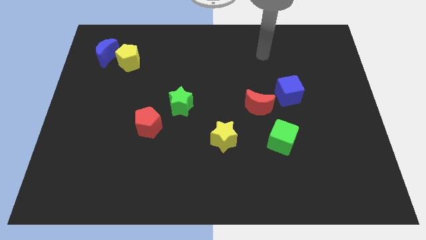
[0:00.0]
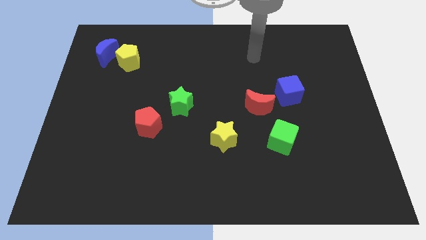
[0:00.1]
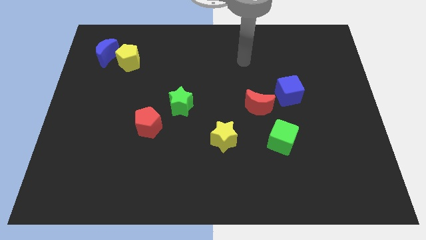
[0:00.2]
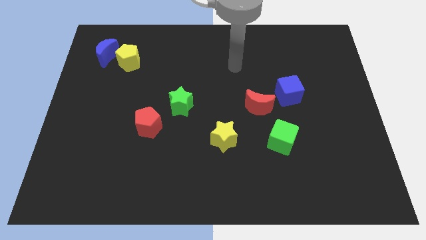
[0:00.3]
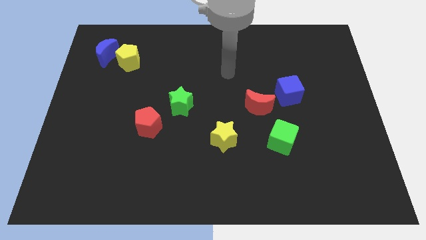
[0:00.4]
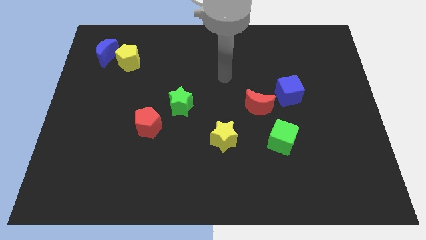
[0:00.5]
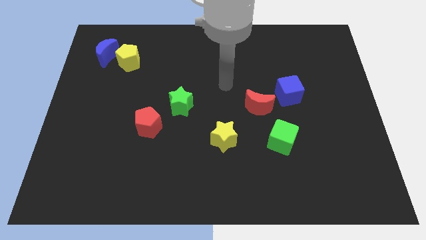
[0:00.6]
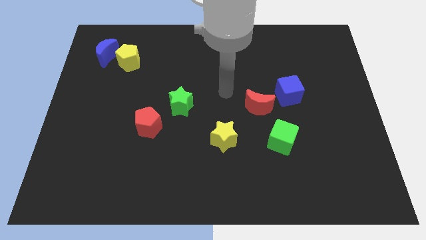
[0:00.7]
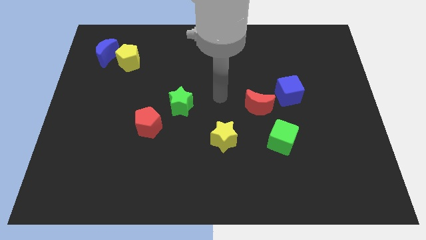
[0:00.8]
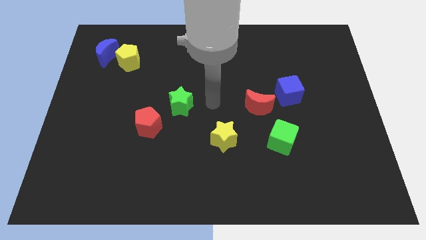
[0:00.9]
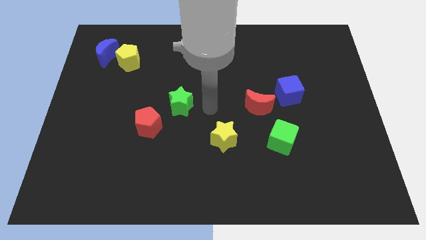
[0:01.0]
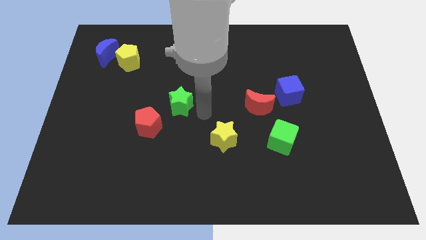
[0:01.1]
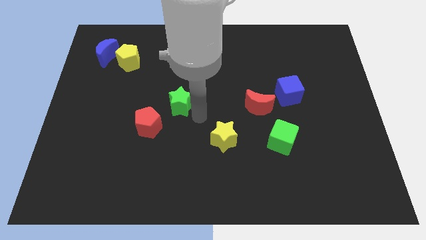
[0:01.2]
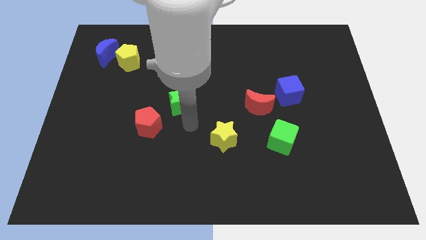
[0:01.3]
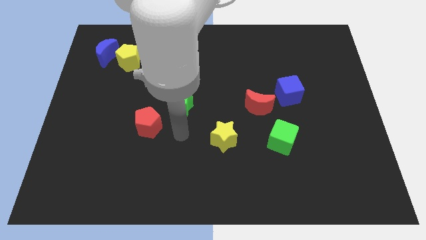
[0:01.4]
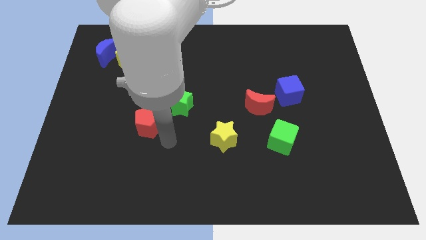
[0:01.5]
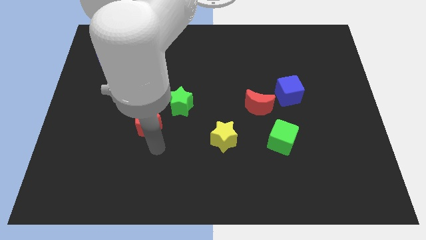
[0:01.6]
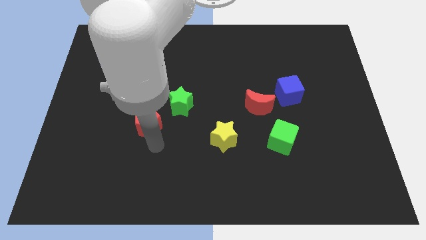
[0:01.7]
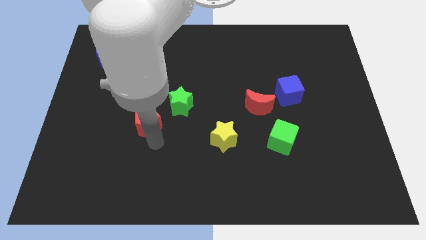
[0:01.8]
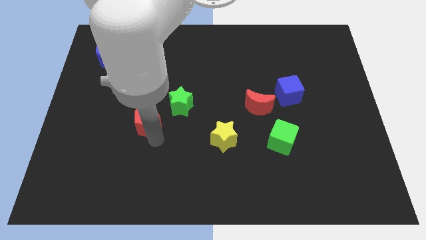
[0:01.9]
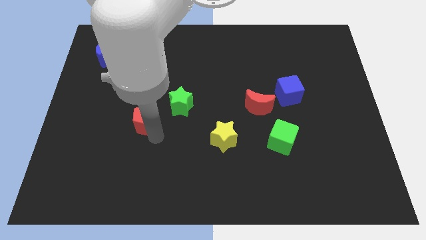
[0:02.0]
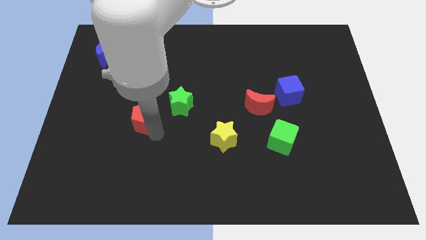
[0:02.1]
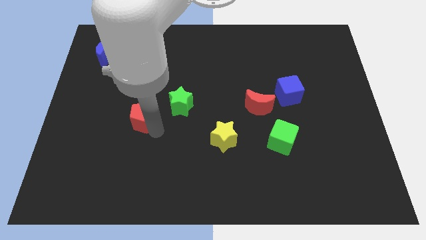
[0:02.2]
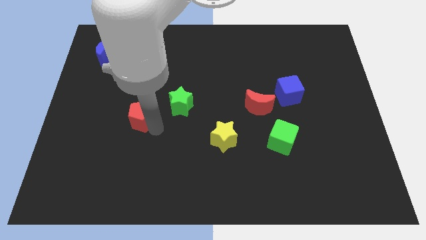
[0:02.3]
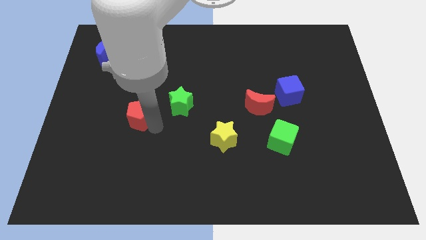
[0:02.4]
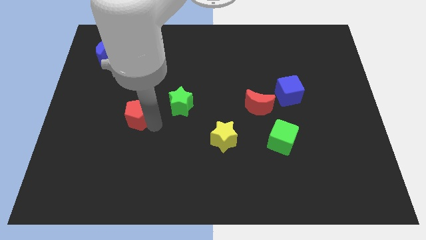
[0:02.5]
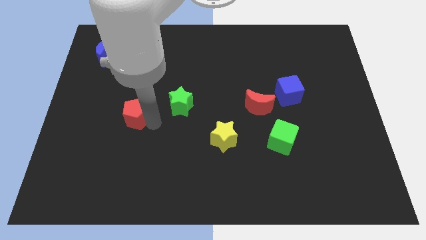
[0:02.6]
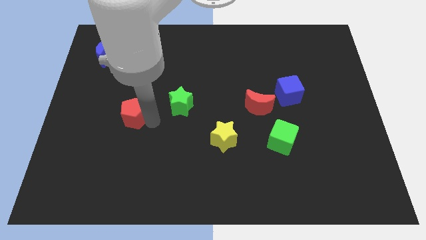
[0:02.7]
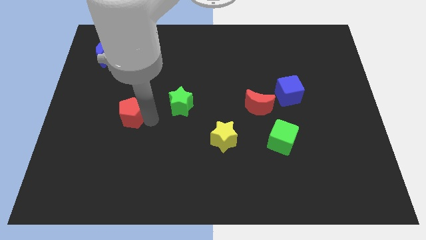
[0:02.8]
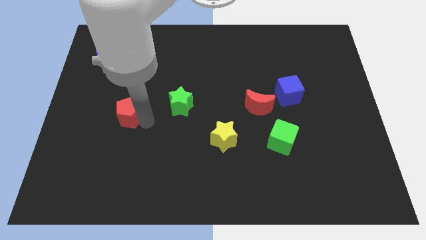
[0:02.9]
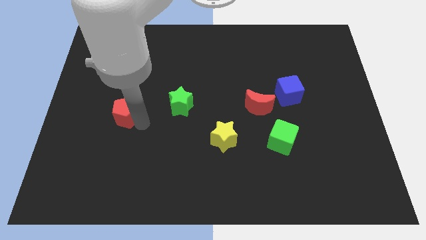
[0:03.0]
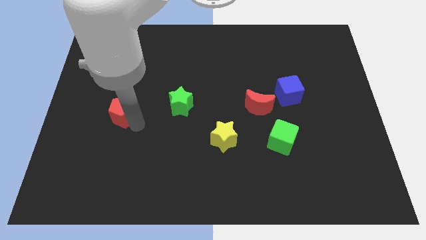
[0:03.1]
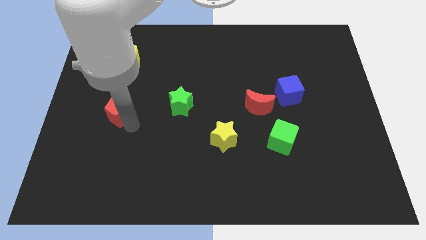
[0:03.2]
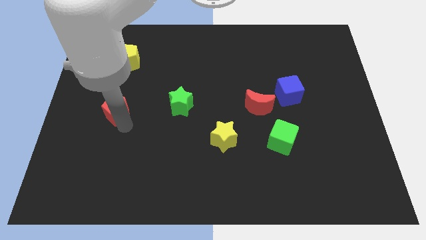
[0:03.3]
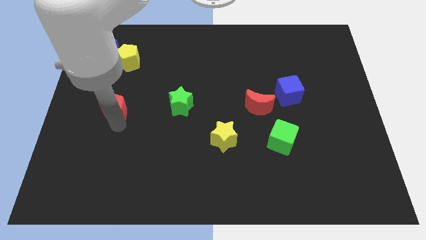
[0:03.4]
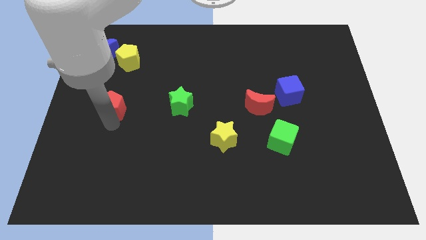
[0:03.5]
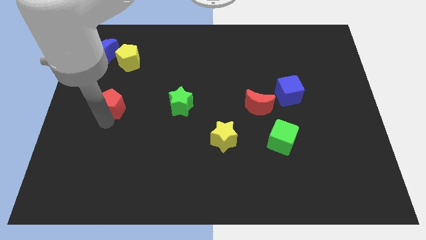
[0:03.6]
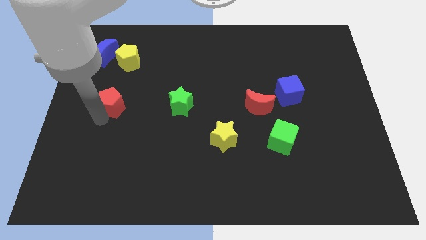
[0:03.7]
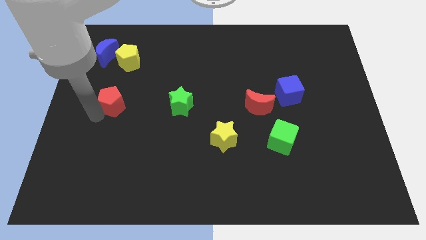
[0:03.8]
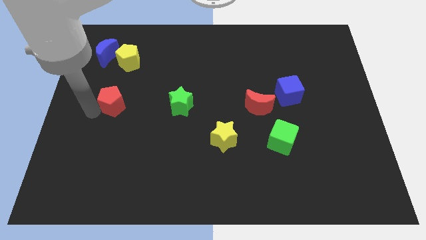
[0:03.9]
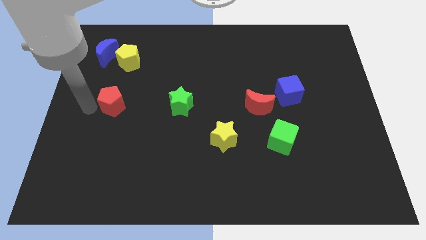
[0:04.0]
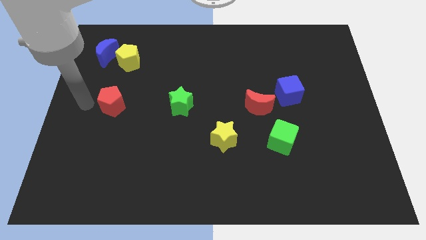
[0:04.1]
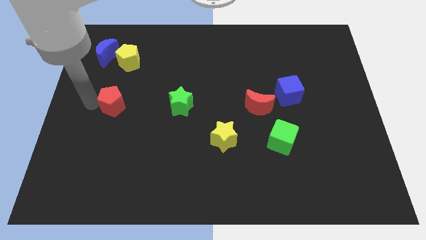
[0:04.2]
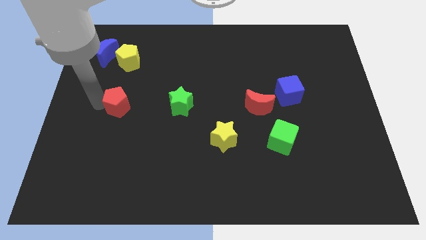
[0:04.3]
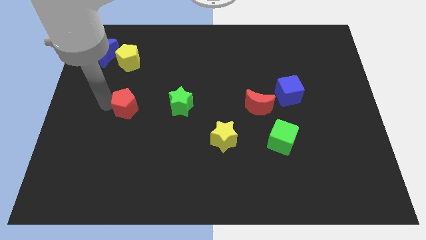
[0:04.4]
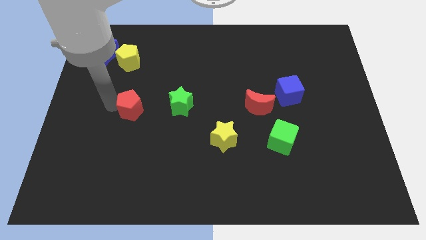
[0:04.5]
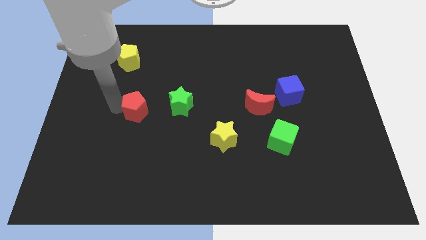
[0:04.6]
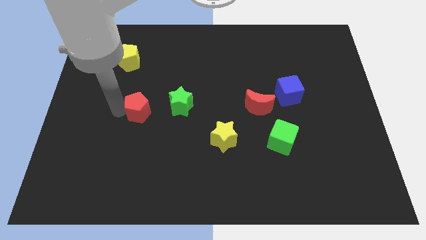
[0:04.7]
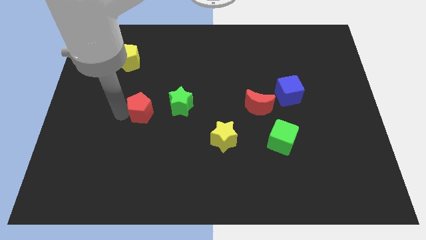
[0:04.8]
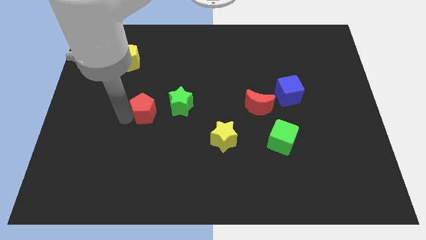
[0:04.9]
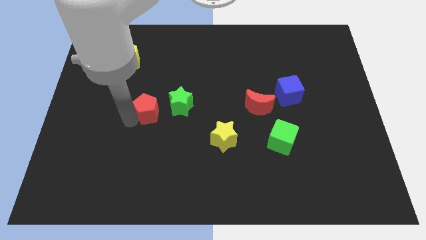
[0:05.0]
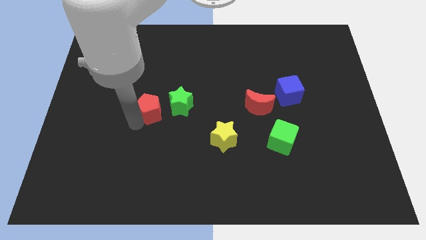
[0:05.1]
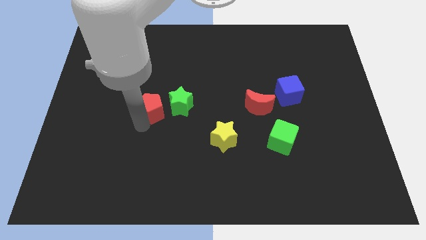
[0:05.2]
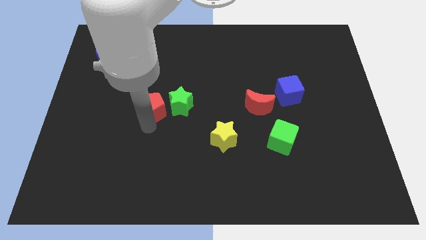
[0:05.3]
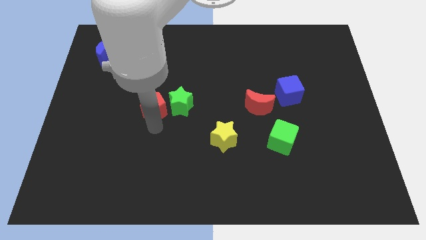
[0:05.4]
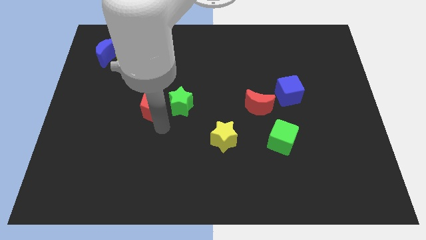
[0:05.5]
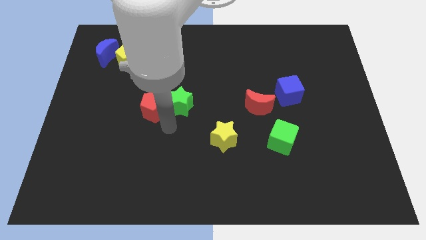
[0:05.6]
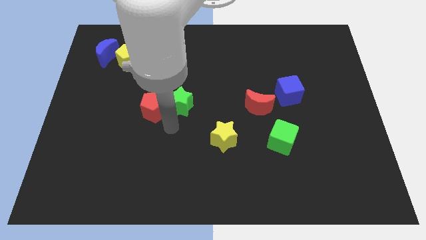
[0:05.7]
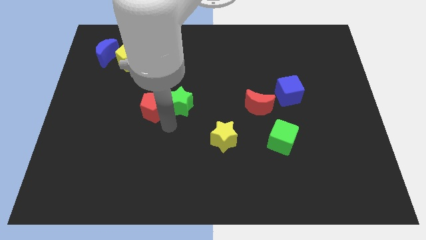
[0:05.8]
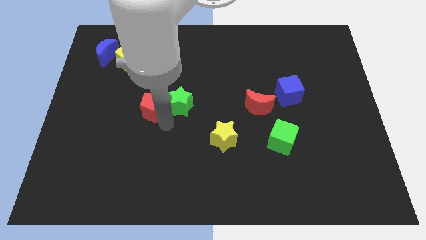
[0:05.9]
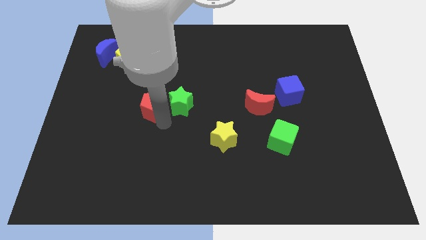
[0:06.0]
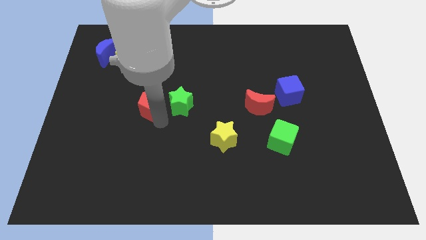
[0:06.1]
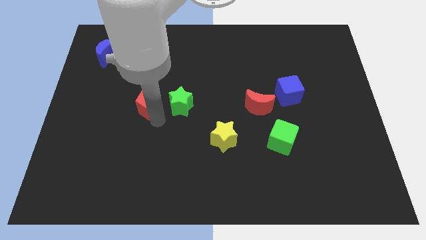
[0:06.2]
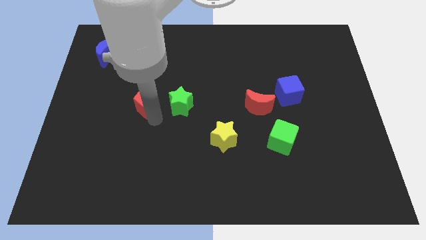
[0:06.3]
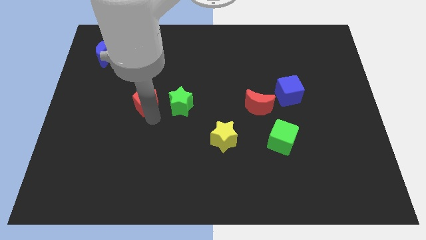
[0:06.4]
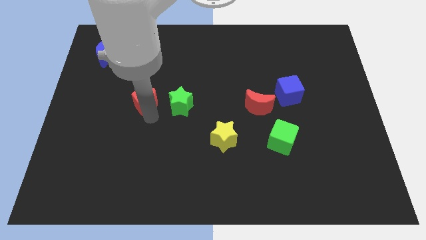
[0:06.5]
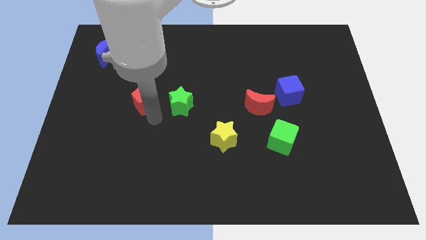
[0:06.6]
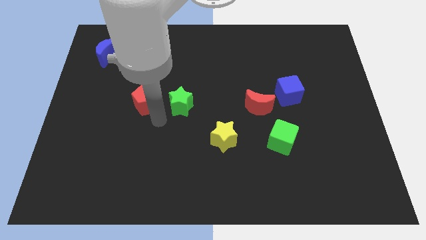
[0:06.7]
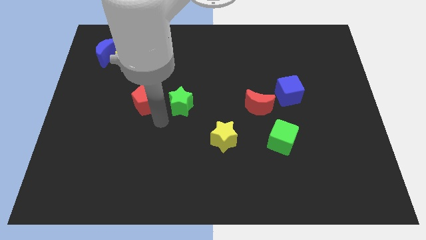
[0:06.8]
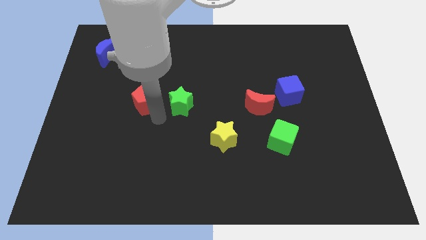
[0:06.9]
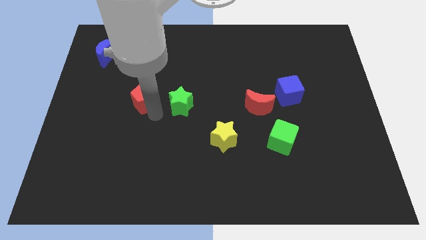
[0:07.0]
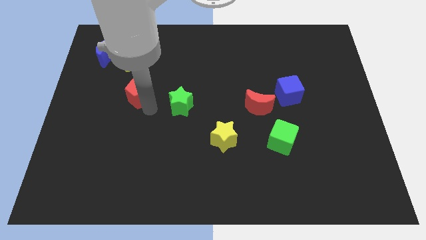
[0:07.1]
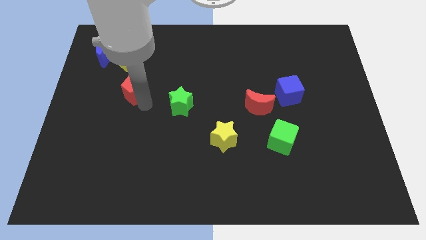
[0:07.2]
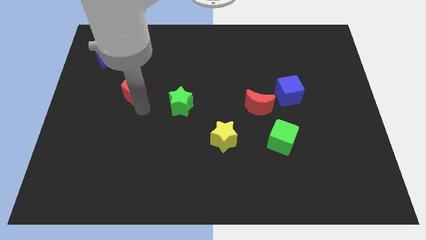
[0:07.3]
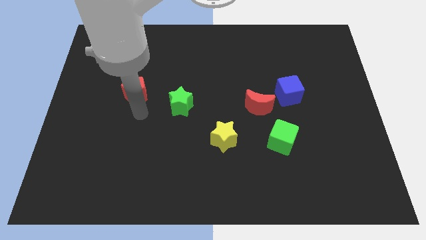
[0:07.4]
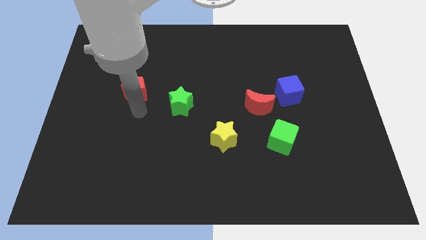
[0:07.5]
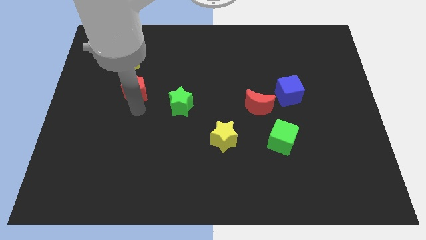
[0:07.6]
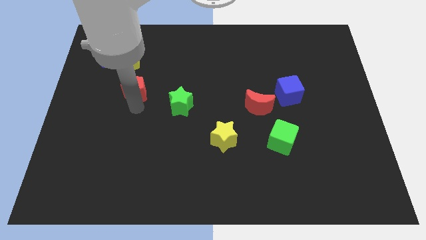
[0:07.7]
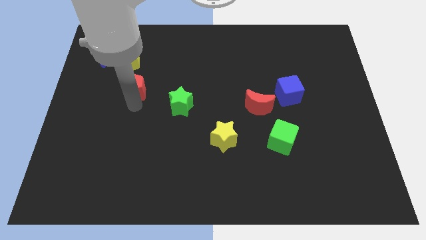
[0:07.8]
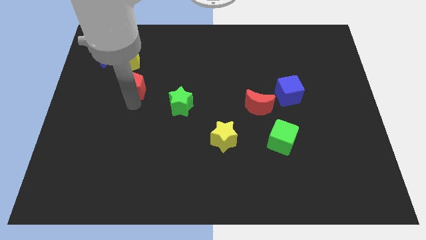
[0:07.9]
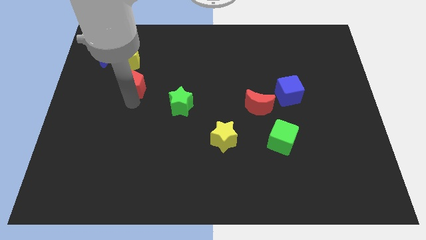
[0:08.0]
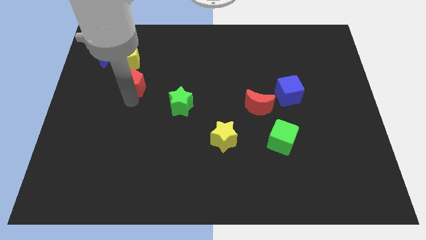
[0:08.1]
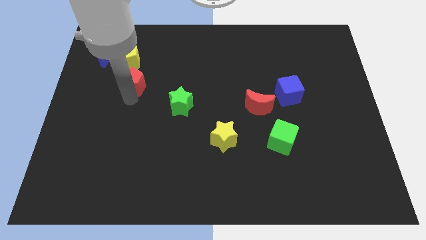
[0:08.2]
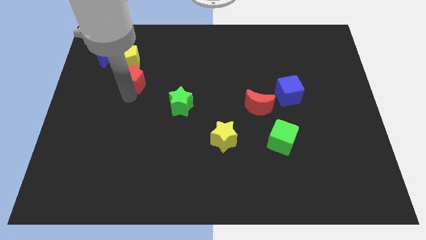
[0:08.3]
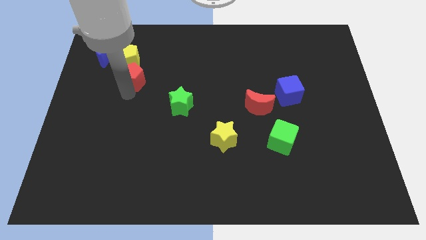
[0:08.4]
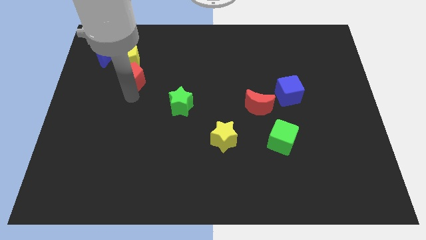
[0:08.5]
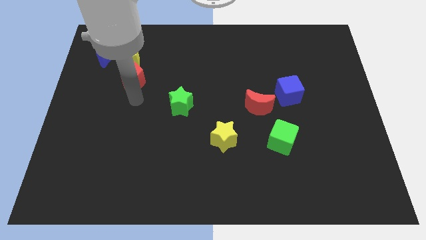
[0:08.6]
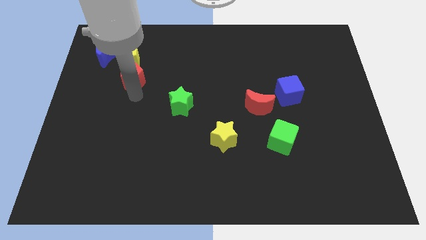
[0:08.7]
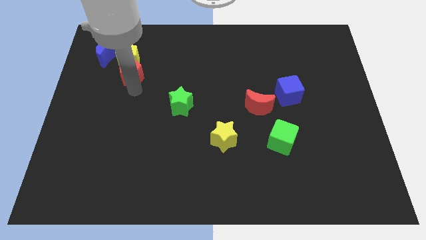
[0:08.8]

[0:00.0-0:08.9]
put the red pentagon to the yellow pentagon
